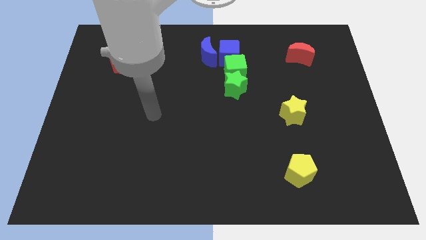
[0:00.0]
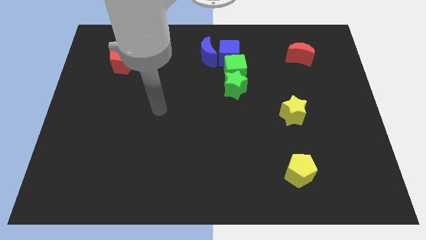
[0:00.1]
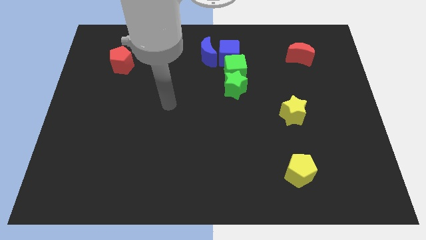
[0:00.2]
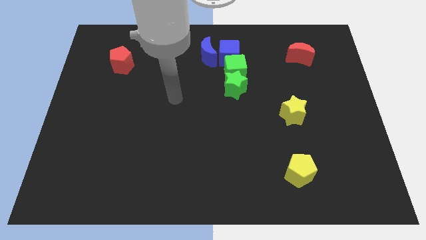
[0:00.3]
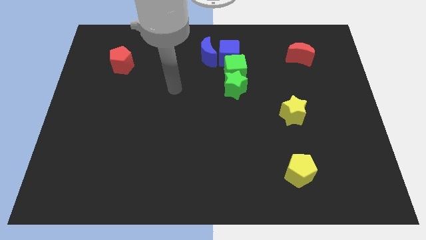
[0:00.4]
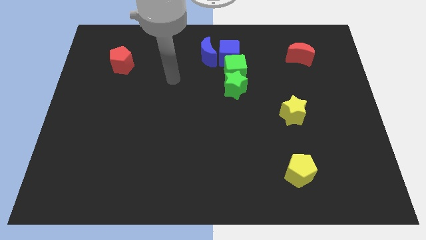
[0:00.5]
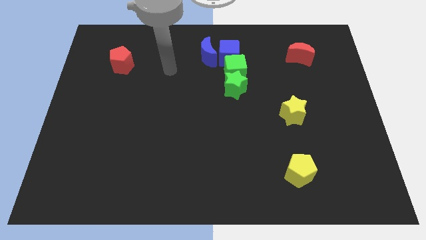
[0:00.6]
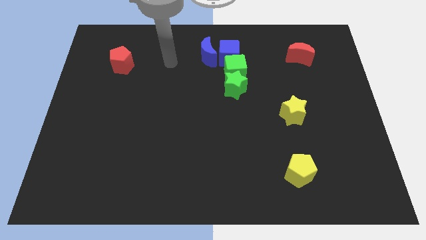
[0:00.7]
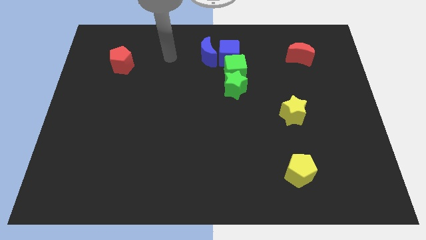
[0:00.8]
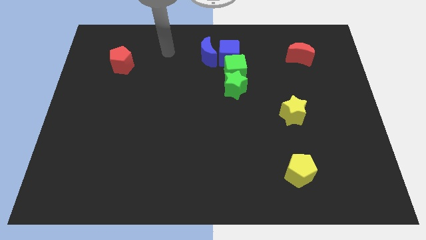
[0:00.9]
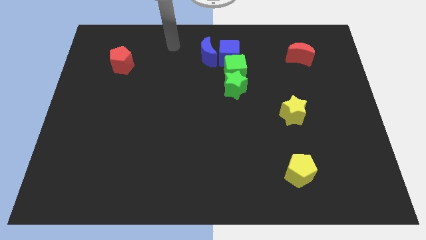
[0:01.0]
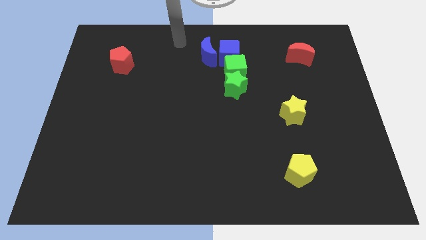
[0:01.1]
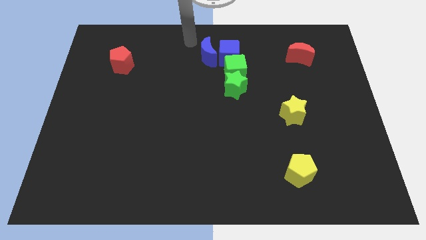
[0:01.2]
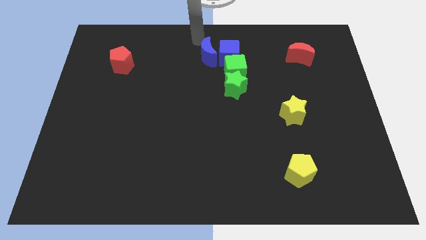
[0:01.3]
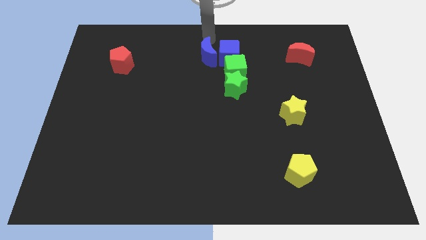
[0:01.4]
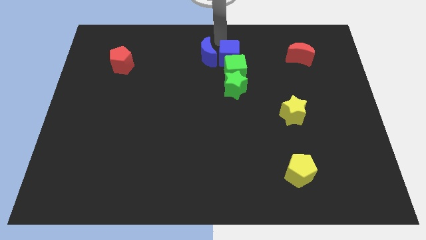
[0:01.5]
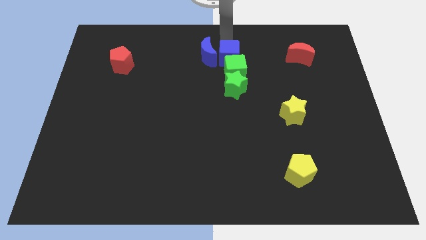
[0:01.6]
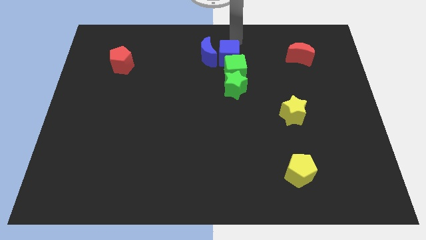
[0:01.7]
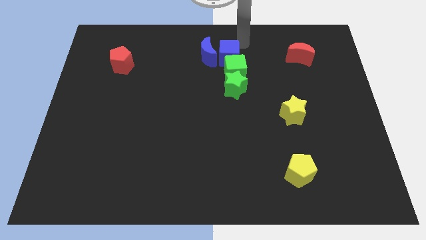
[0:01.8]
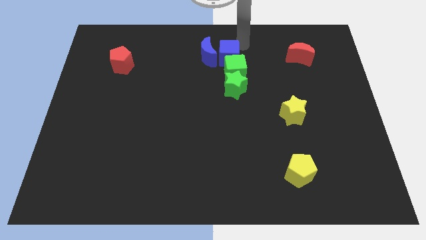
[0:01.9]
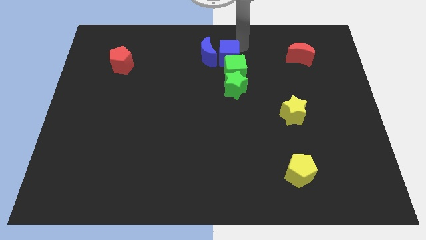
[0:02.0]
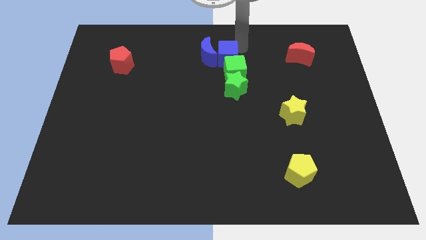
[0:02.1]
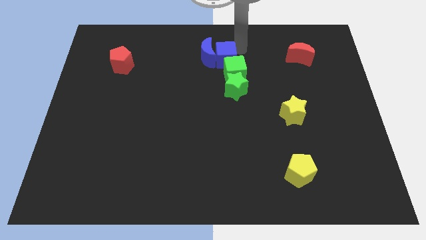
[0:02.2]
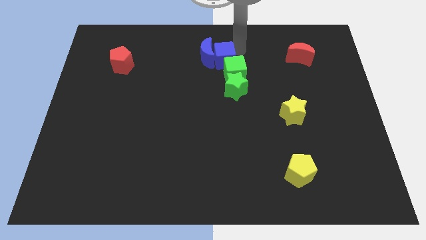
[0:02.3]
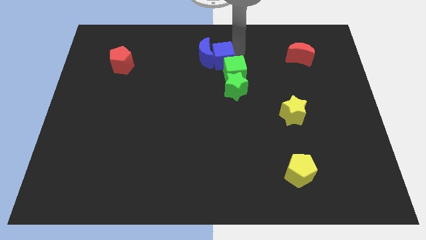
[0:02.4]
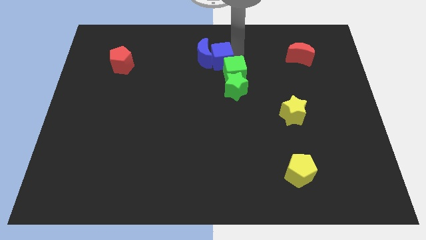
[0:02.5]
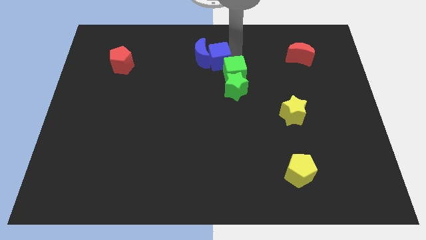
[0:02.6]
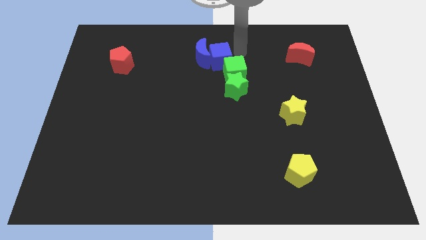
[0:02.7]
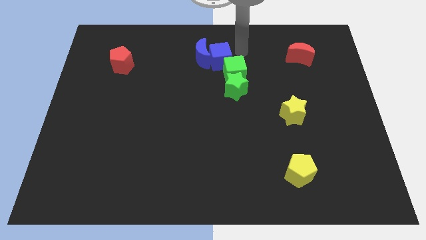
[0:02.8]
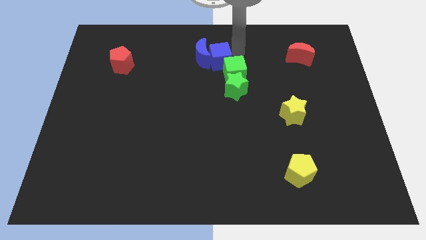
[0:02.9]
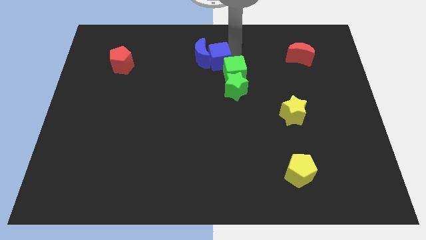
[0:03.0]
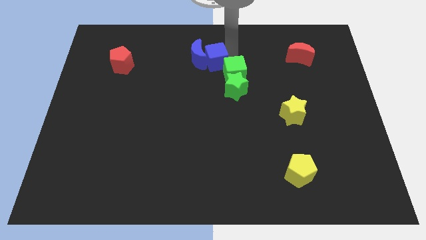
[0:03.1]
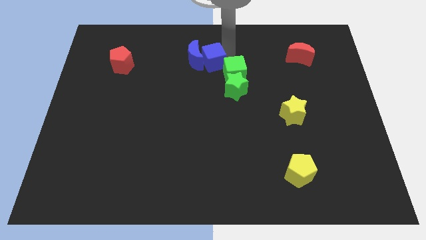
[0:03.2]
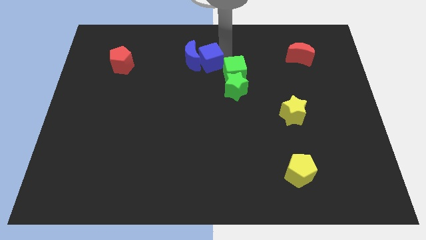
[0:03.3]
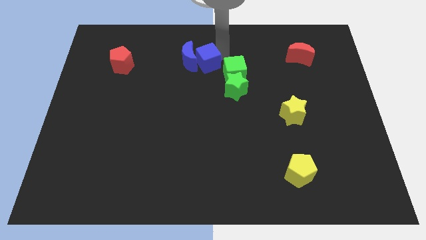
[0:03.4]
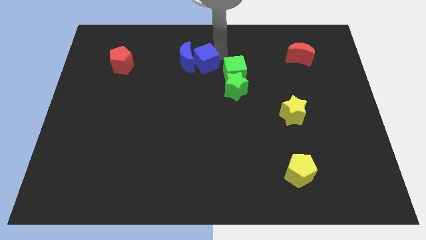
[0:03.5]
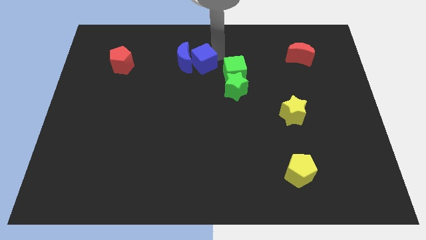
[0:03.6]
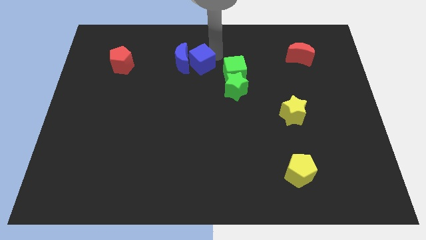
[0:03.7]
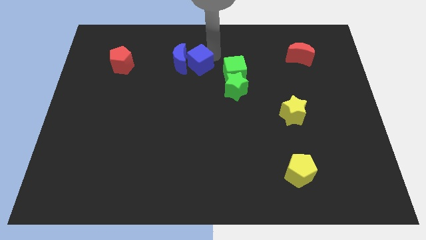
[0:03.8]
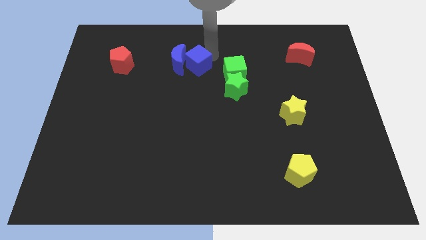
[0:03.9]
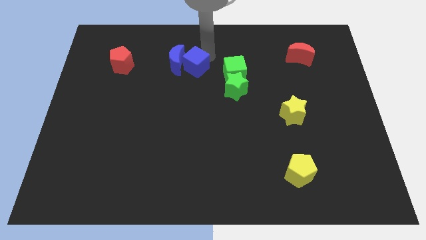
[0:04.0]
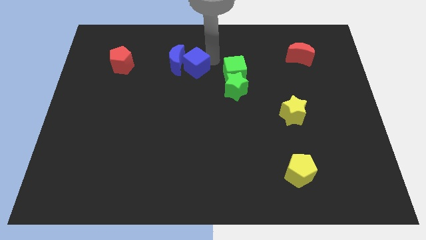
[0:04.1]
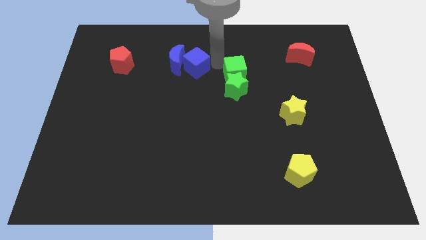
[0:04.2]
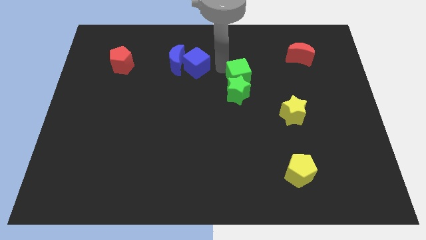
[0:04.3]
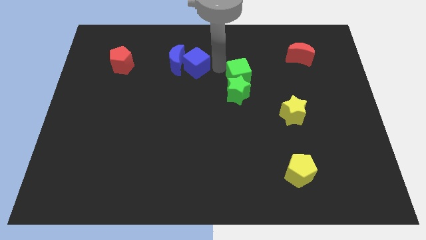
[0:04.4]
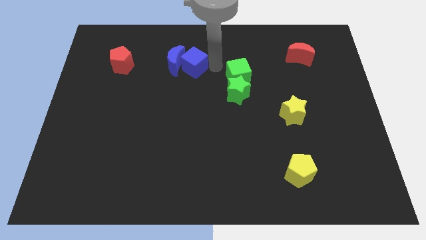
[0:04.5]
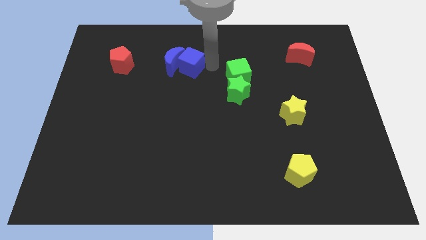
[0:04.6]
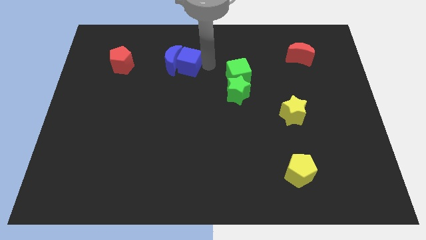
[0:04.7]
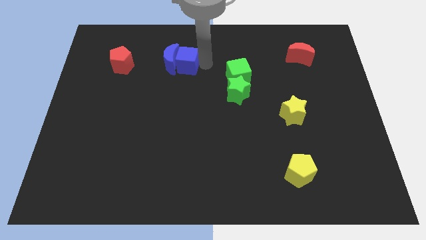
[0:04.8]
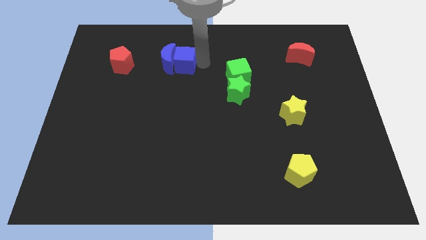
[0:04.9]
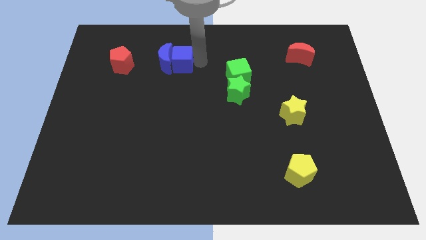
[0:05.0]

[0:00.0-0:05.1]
put the blue cube to the right side of the red pentagon

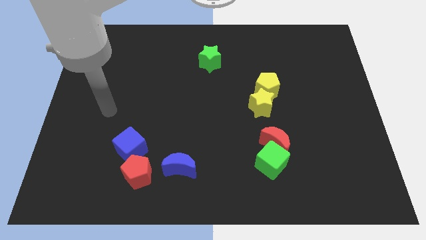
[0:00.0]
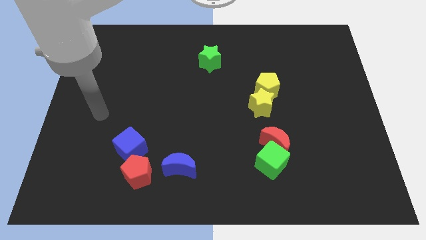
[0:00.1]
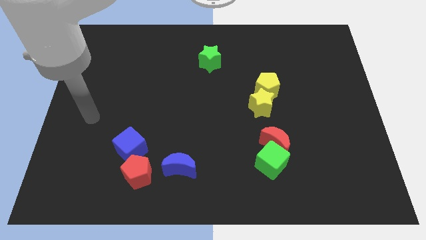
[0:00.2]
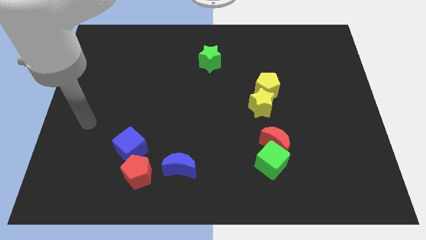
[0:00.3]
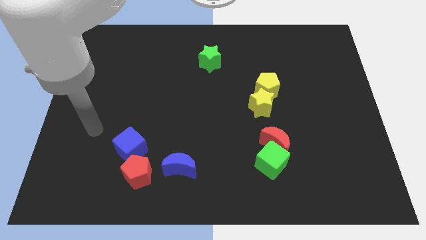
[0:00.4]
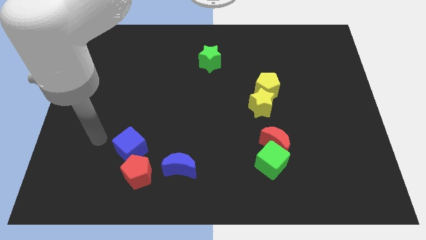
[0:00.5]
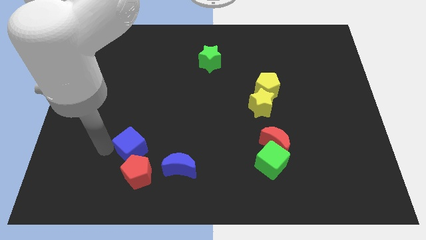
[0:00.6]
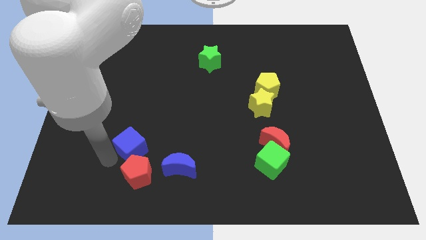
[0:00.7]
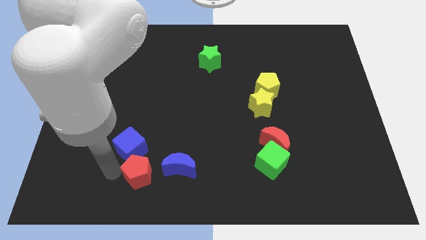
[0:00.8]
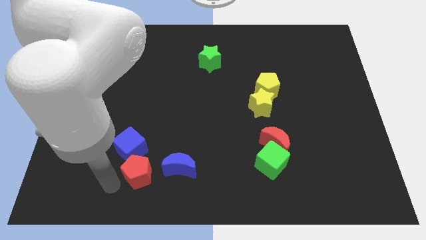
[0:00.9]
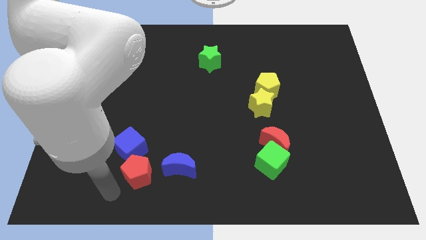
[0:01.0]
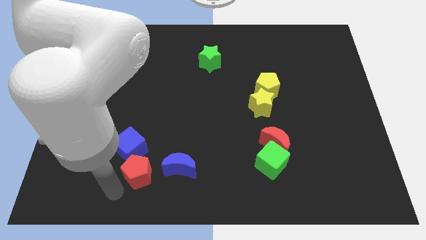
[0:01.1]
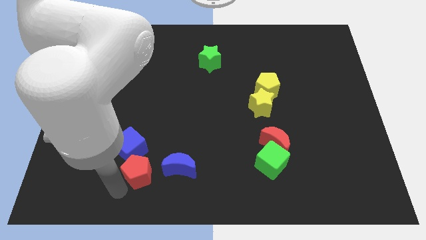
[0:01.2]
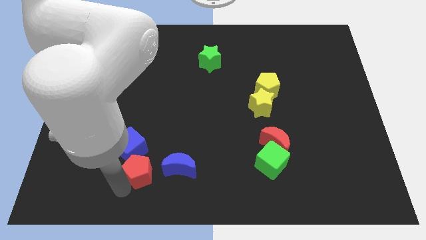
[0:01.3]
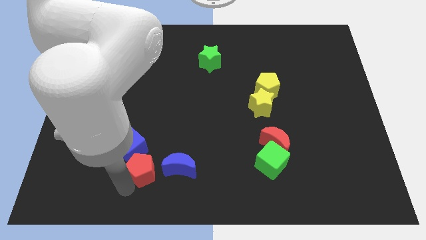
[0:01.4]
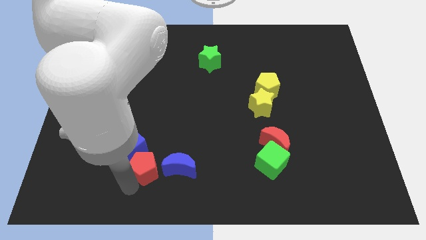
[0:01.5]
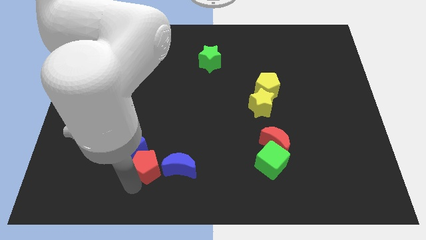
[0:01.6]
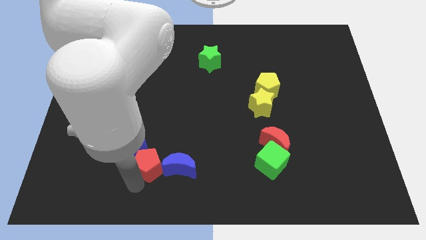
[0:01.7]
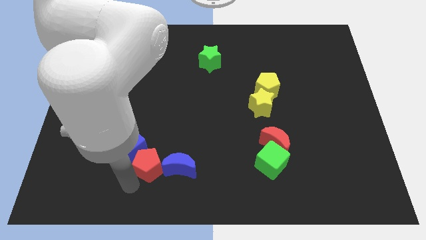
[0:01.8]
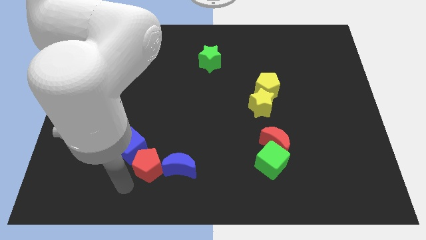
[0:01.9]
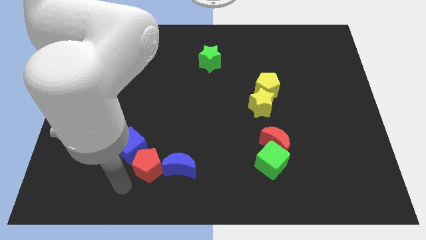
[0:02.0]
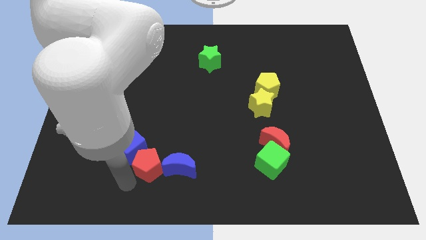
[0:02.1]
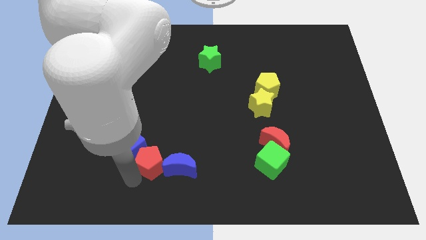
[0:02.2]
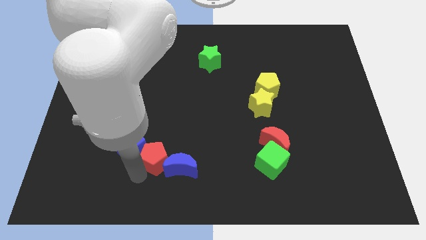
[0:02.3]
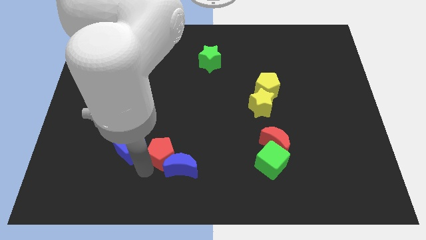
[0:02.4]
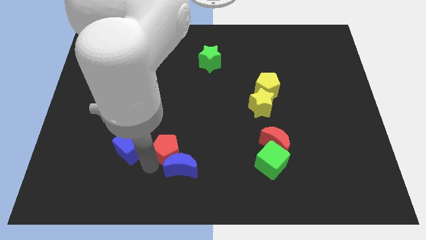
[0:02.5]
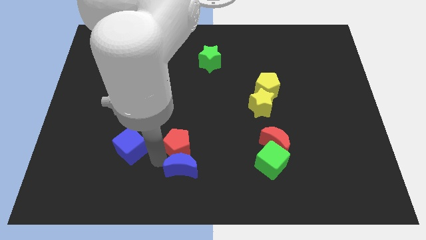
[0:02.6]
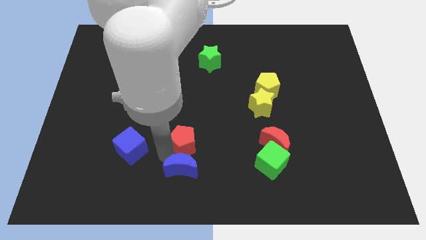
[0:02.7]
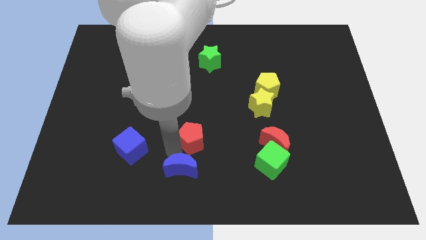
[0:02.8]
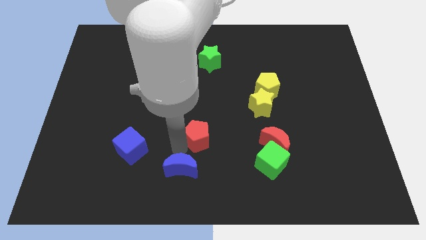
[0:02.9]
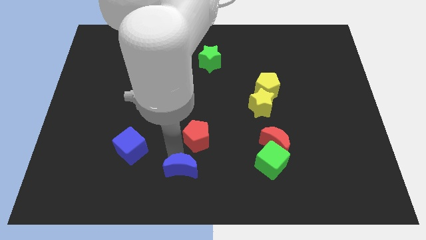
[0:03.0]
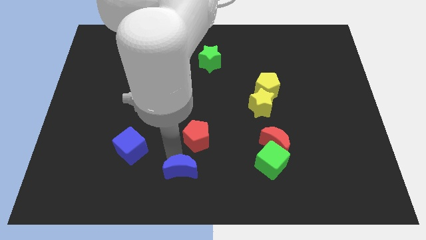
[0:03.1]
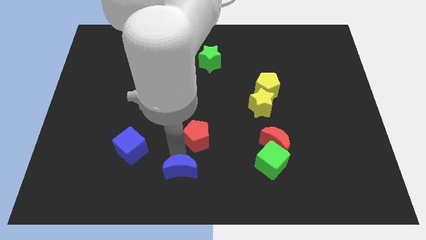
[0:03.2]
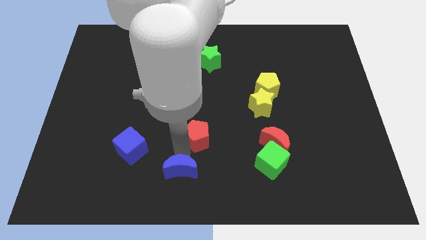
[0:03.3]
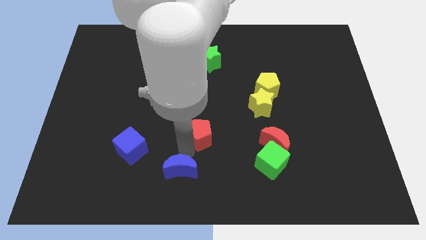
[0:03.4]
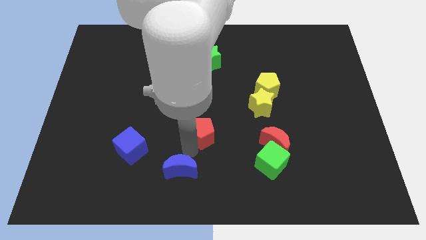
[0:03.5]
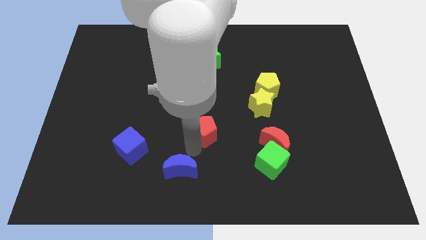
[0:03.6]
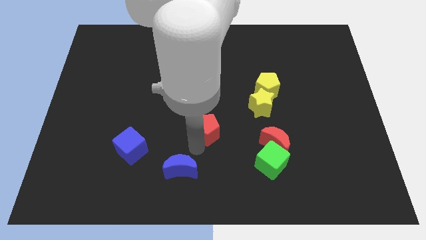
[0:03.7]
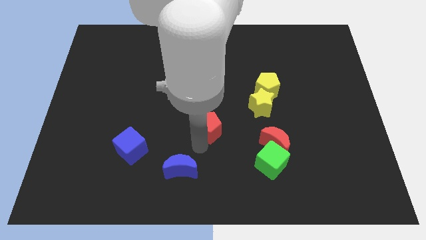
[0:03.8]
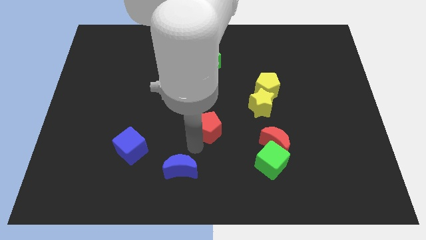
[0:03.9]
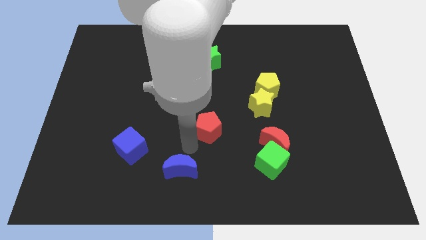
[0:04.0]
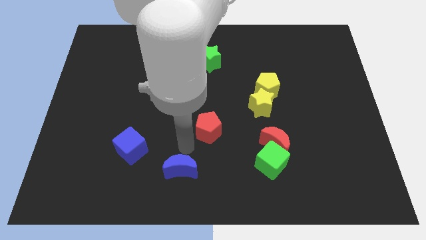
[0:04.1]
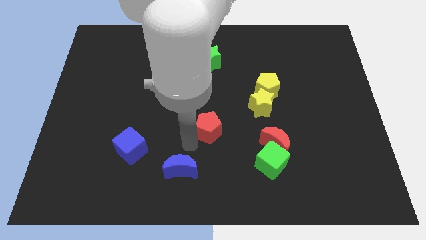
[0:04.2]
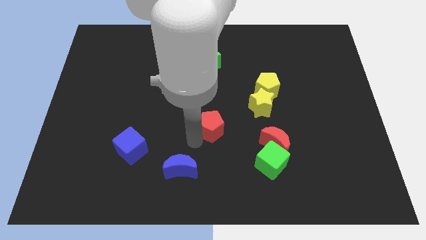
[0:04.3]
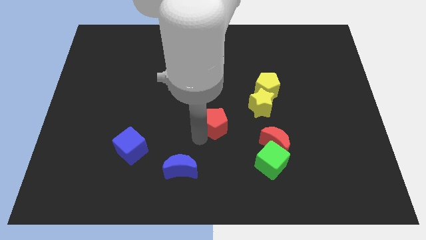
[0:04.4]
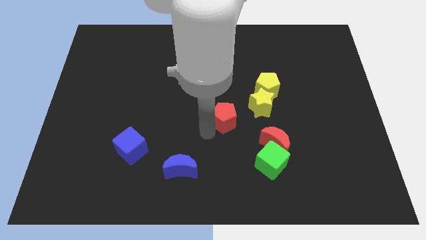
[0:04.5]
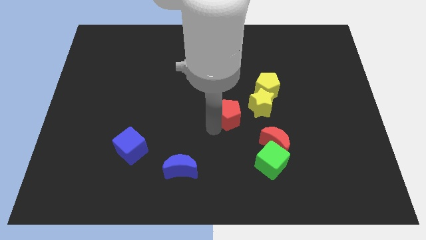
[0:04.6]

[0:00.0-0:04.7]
slide the red pentagon diagonally down and to the left of the yellow pentagon
